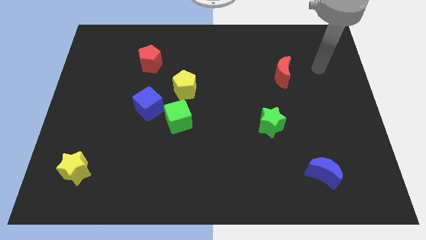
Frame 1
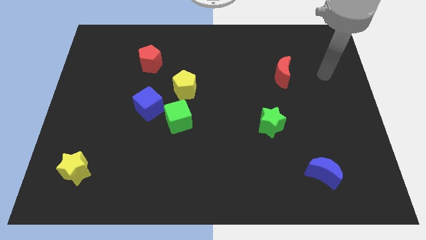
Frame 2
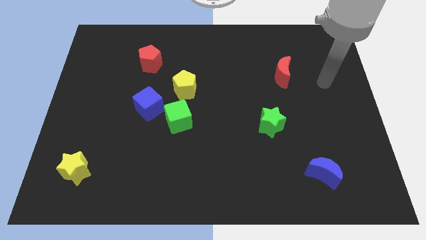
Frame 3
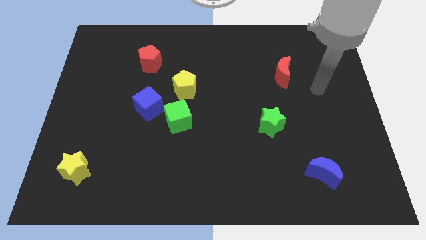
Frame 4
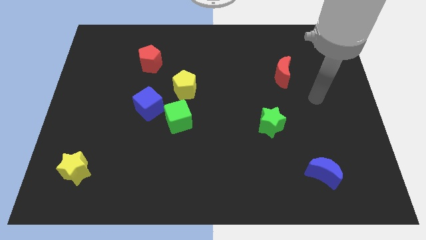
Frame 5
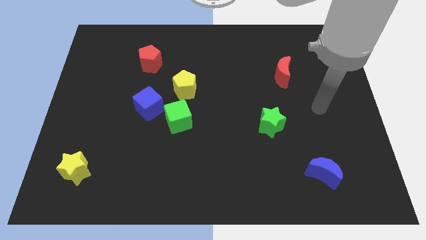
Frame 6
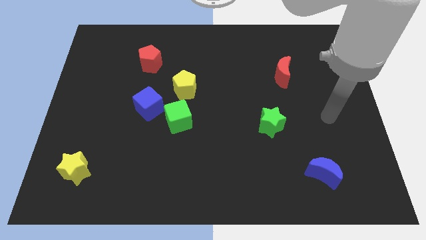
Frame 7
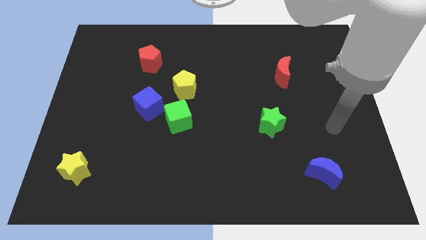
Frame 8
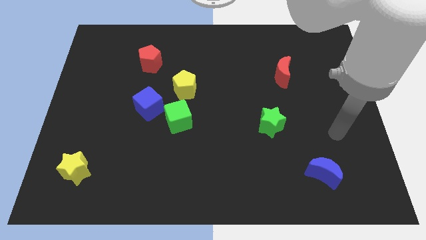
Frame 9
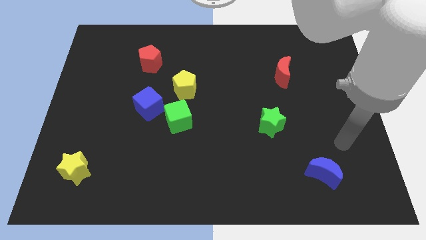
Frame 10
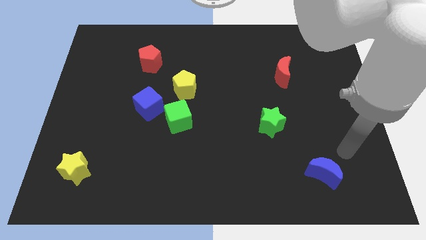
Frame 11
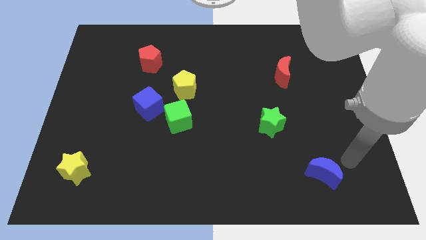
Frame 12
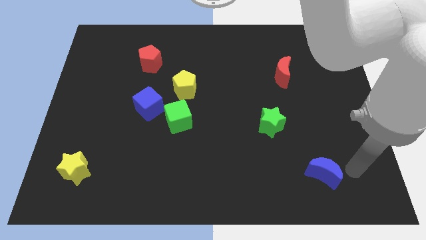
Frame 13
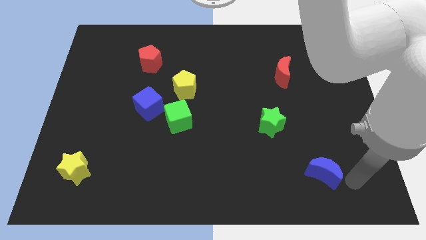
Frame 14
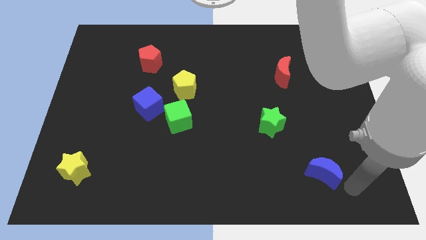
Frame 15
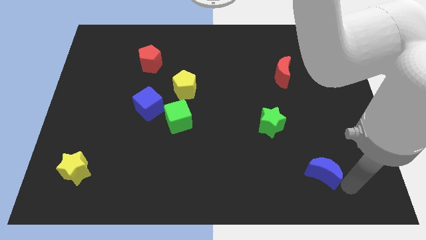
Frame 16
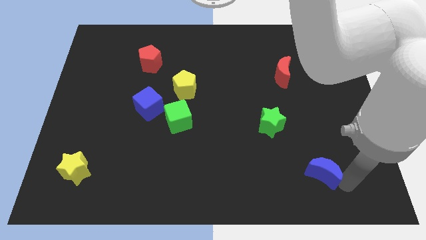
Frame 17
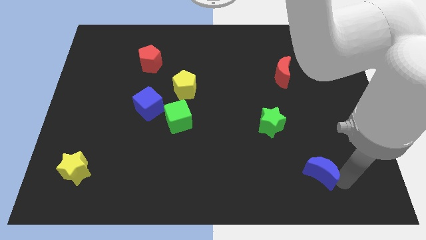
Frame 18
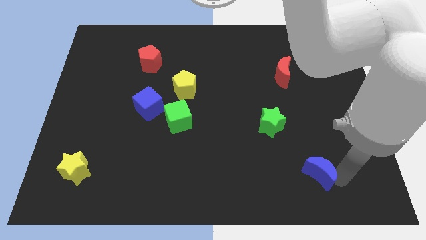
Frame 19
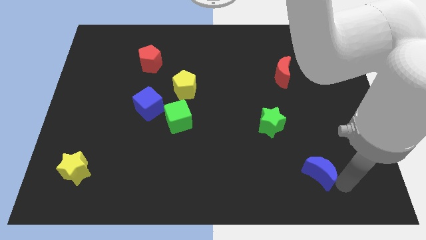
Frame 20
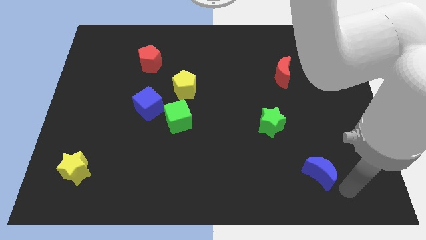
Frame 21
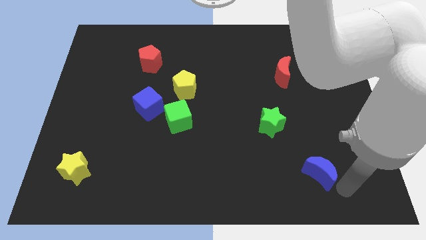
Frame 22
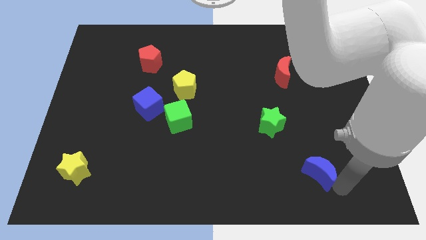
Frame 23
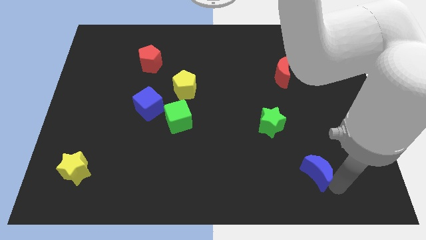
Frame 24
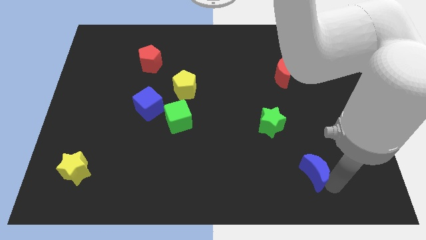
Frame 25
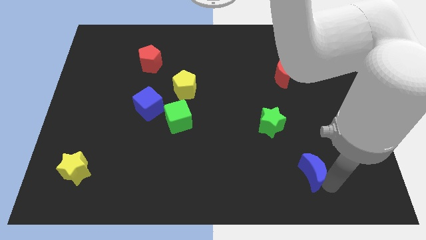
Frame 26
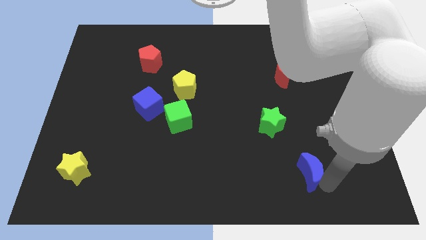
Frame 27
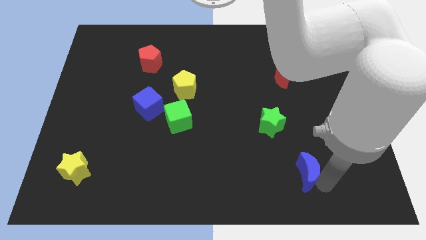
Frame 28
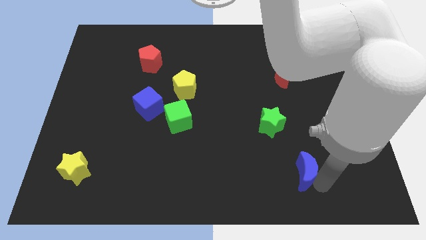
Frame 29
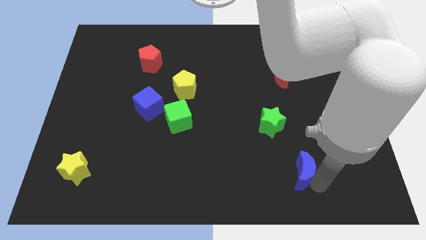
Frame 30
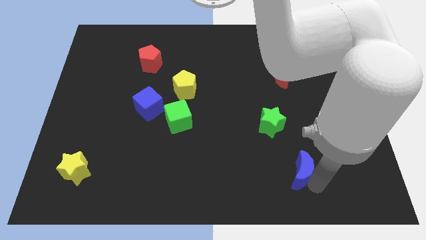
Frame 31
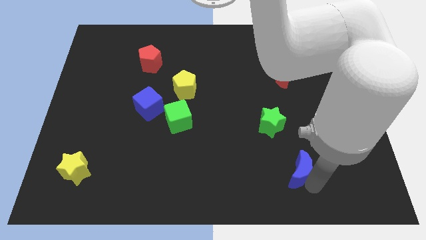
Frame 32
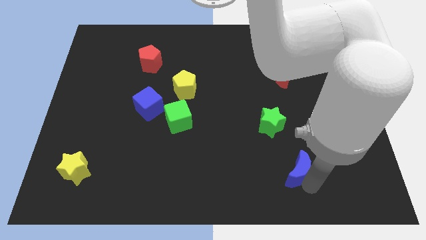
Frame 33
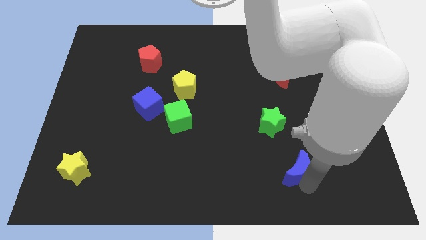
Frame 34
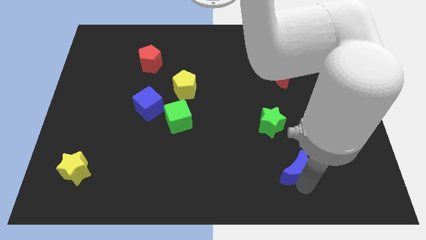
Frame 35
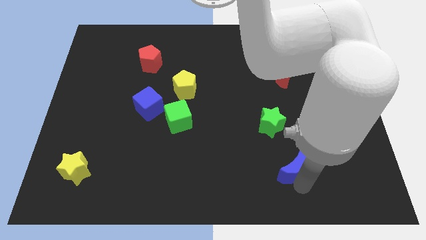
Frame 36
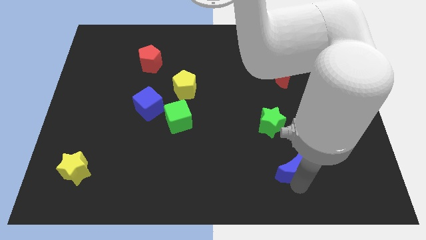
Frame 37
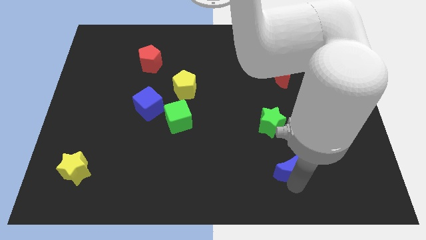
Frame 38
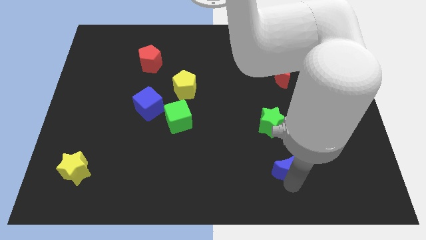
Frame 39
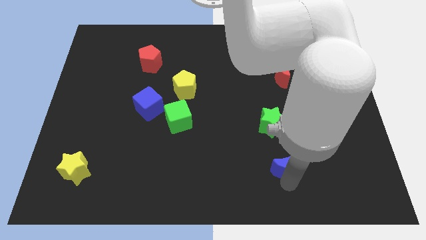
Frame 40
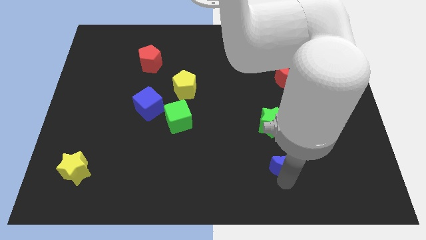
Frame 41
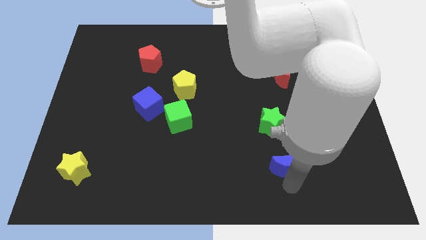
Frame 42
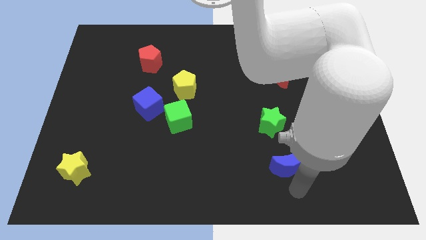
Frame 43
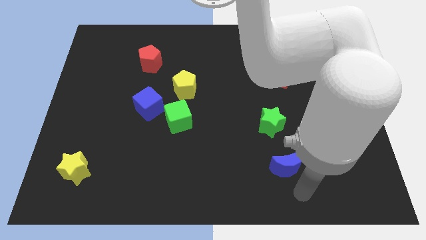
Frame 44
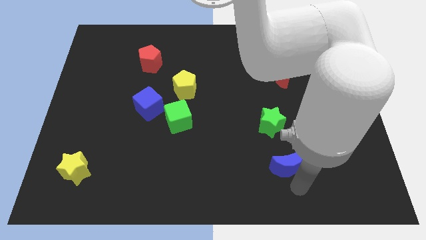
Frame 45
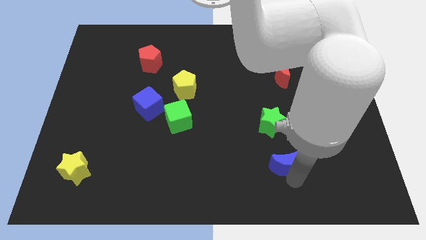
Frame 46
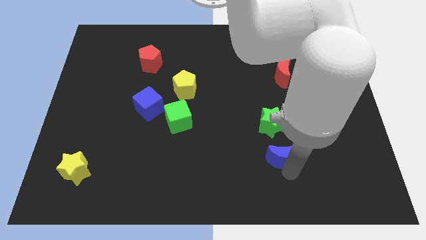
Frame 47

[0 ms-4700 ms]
slightly move the blue moon up and left diagonally

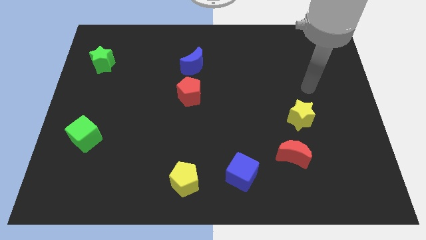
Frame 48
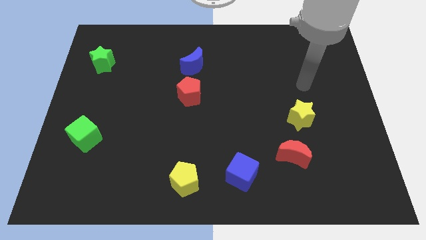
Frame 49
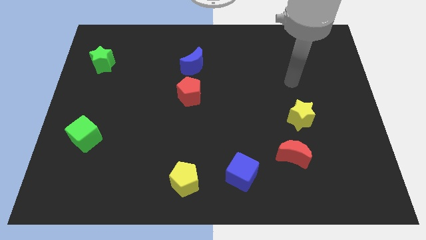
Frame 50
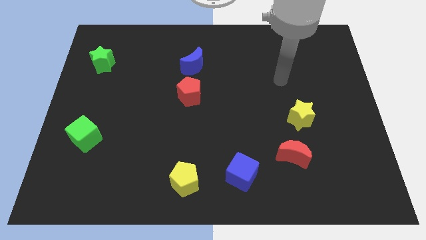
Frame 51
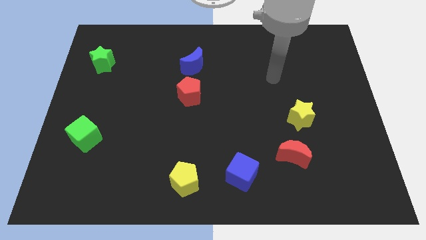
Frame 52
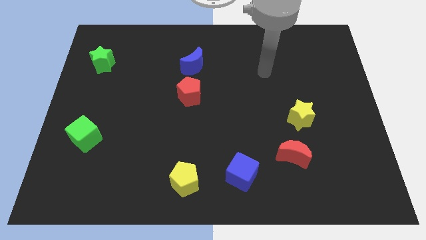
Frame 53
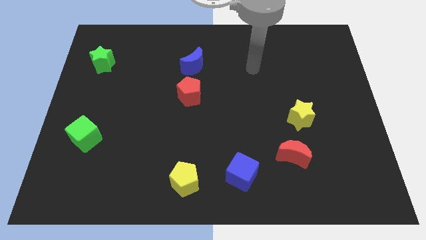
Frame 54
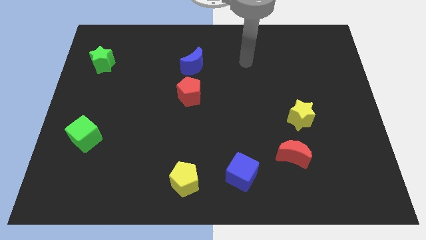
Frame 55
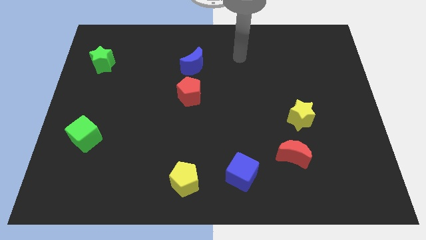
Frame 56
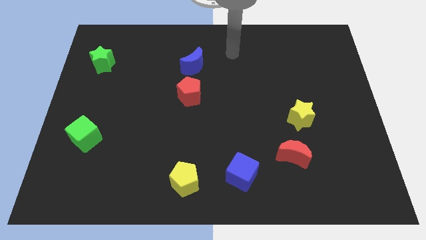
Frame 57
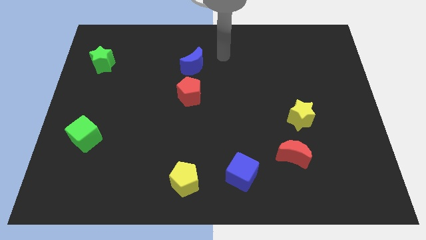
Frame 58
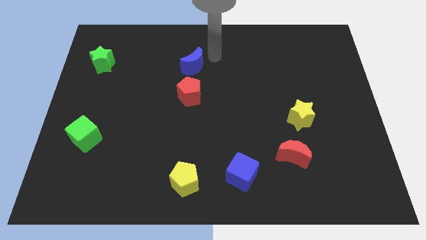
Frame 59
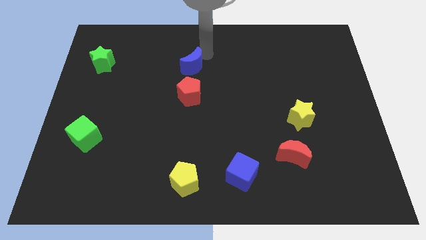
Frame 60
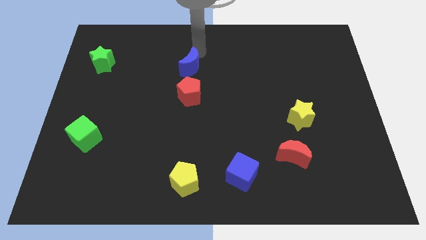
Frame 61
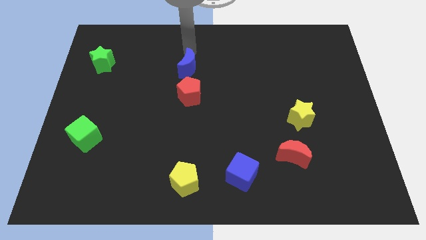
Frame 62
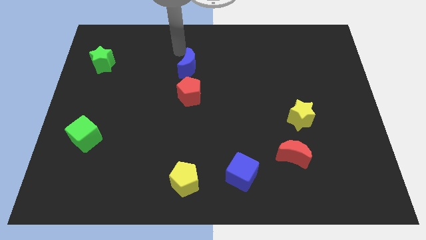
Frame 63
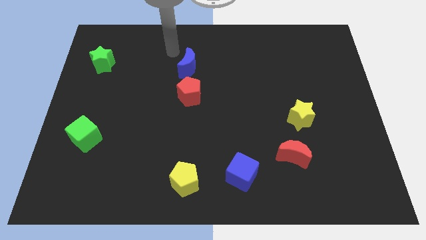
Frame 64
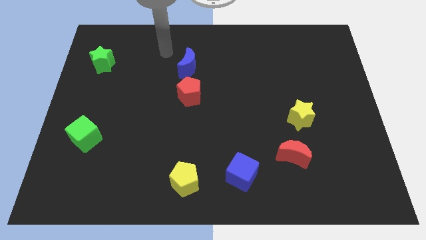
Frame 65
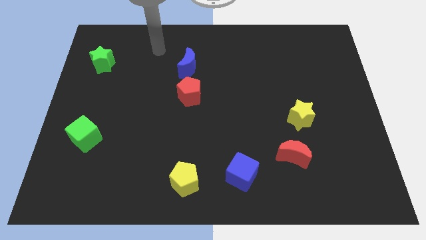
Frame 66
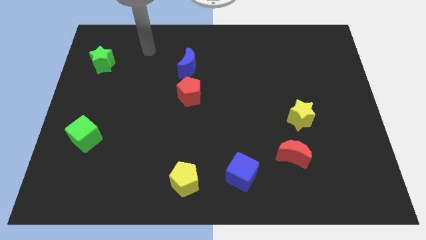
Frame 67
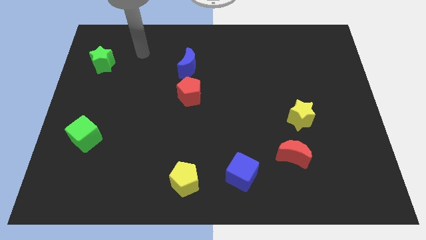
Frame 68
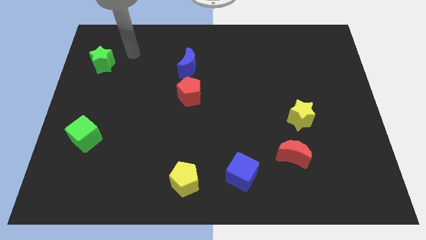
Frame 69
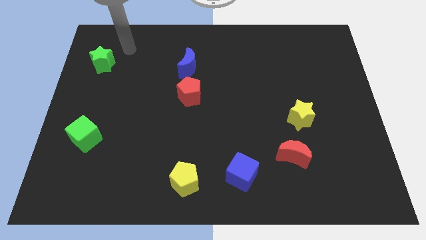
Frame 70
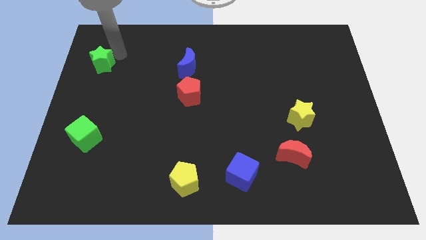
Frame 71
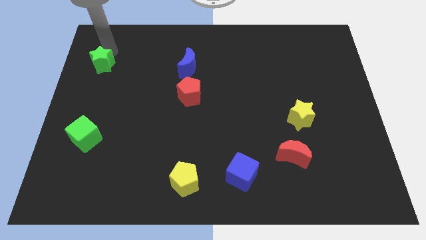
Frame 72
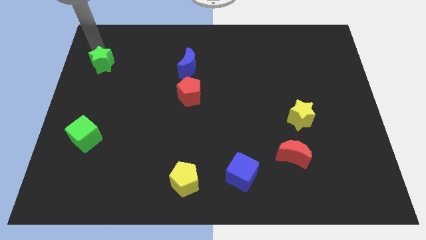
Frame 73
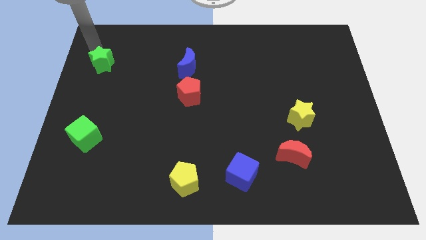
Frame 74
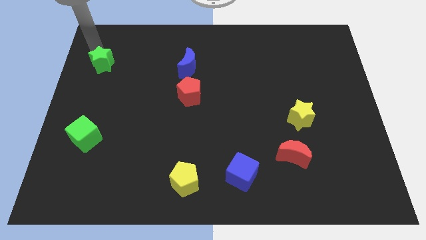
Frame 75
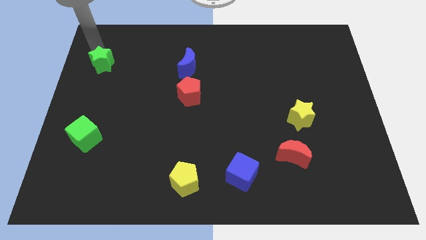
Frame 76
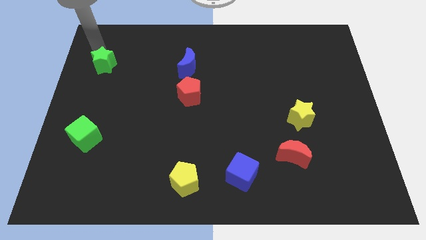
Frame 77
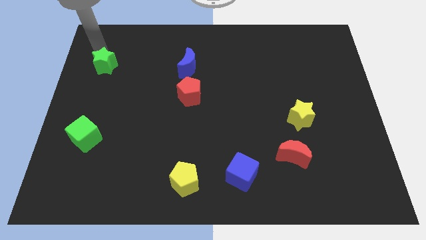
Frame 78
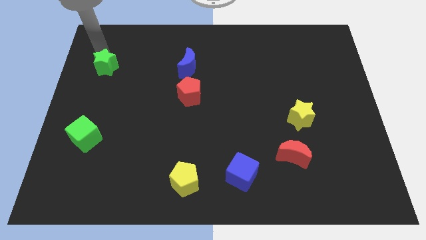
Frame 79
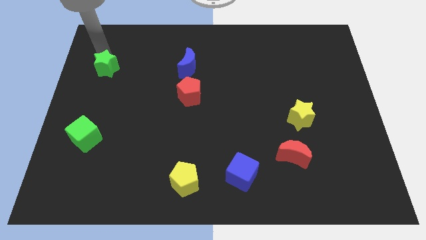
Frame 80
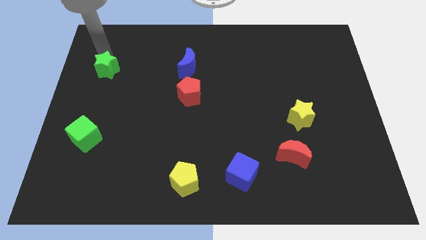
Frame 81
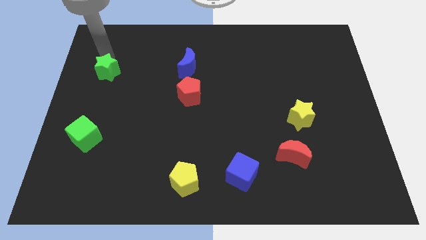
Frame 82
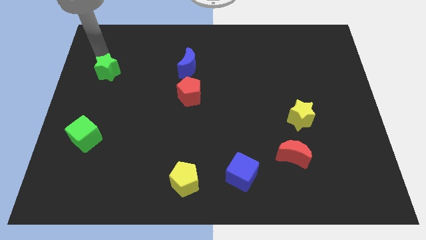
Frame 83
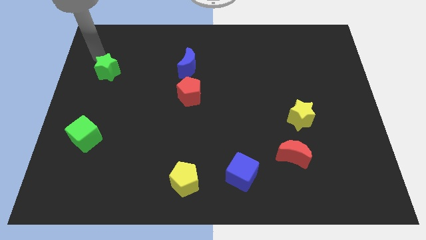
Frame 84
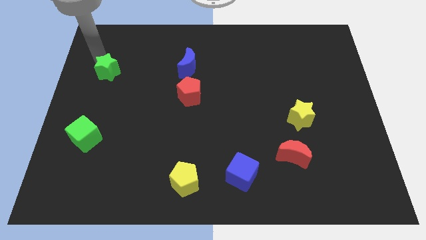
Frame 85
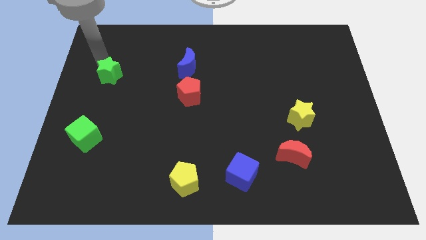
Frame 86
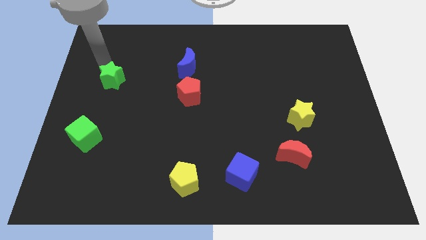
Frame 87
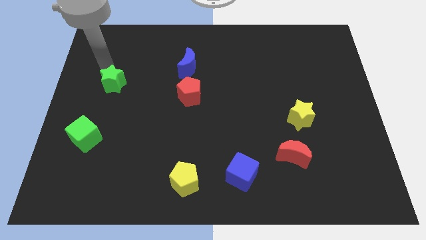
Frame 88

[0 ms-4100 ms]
push the green star downwards and then right a bit
